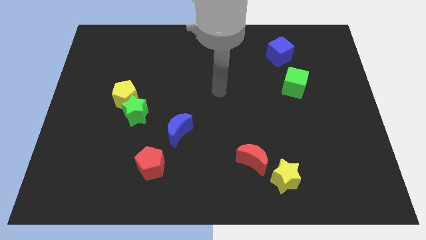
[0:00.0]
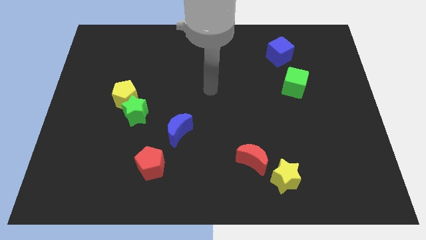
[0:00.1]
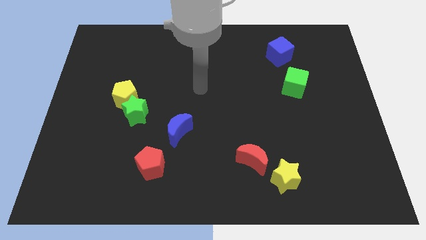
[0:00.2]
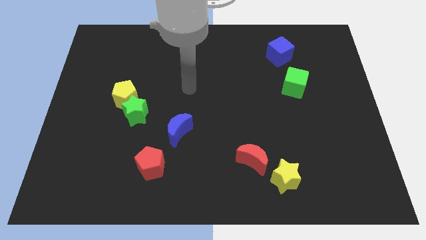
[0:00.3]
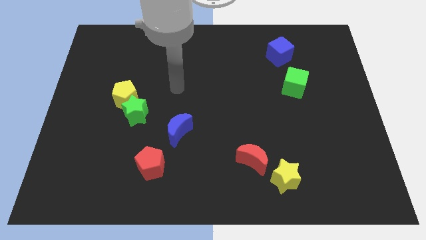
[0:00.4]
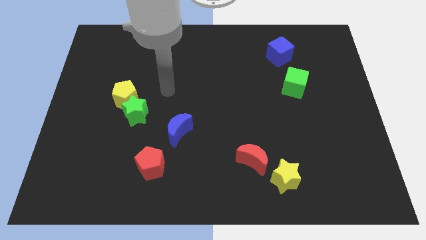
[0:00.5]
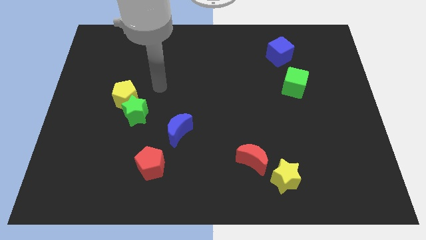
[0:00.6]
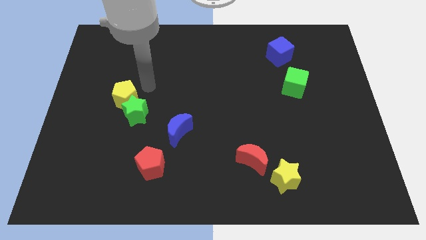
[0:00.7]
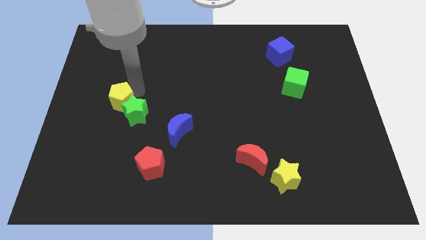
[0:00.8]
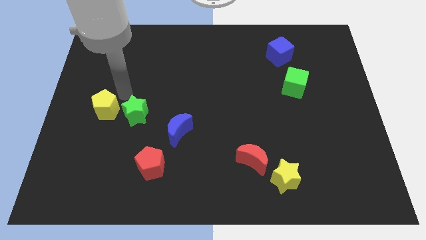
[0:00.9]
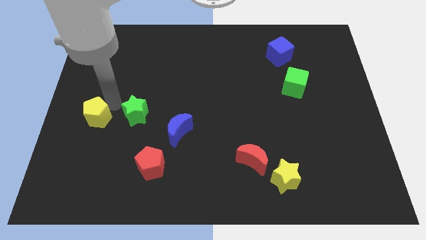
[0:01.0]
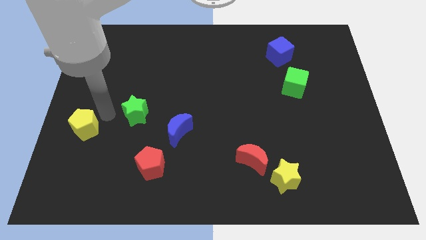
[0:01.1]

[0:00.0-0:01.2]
pull the green star apart from the yellow pentagon

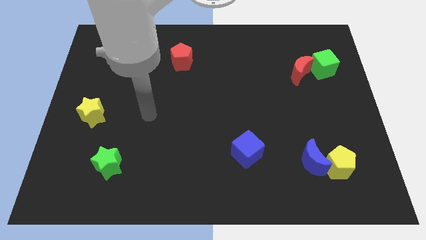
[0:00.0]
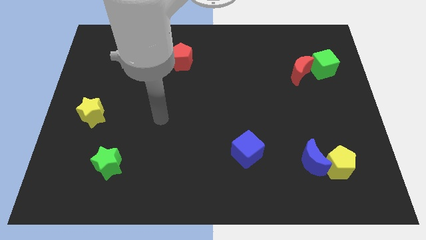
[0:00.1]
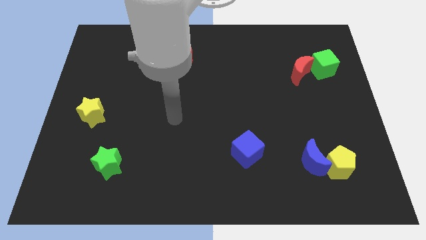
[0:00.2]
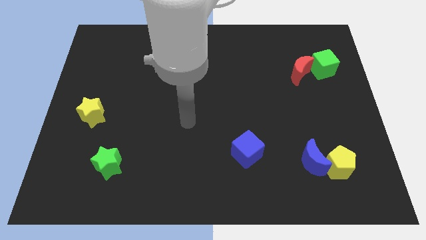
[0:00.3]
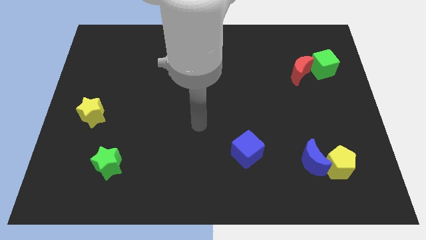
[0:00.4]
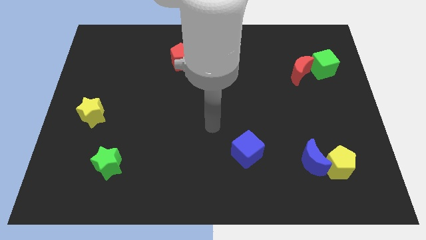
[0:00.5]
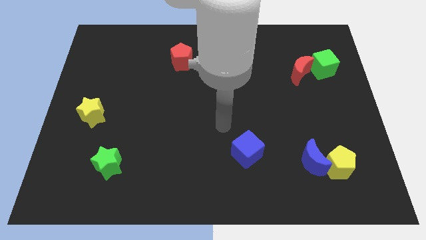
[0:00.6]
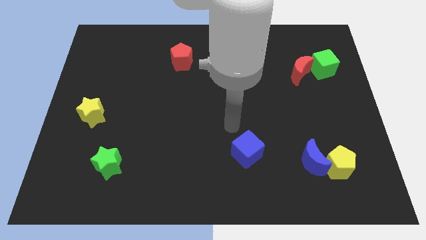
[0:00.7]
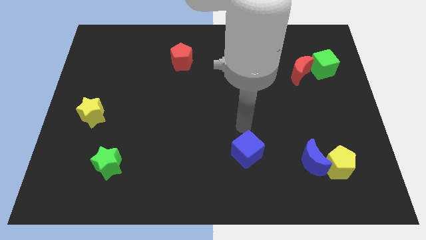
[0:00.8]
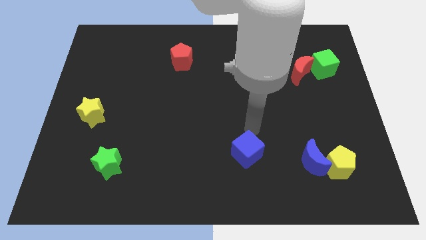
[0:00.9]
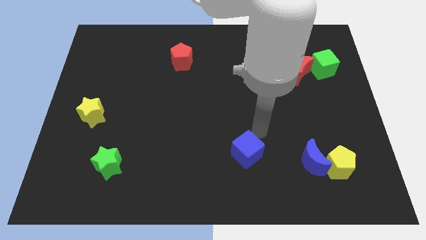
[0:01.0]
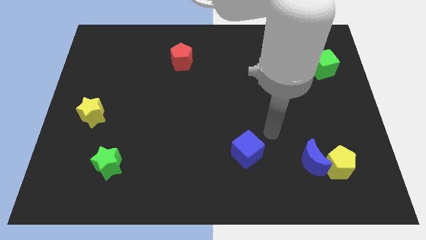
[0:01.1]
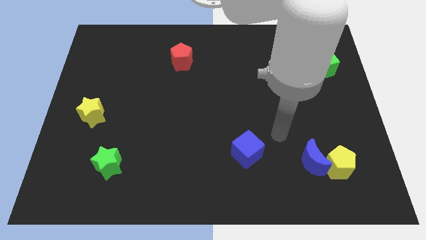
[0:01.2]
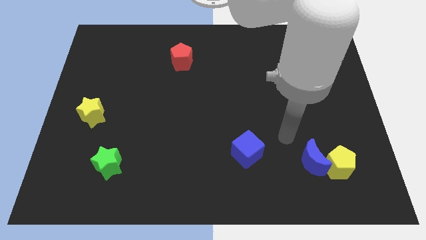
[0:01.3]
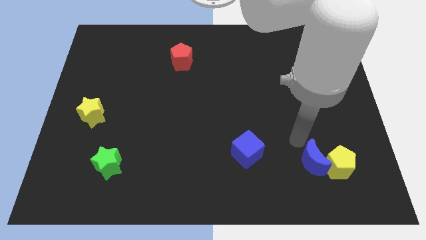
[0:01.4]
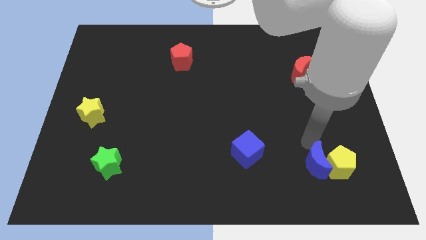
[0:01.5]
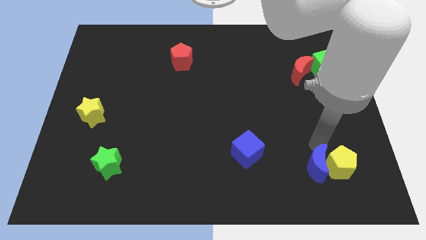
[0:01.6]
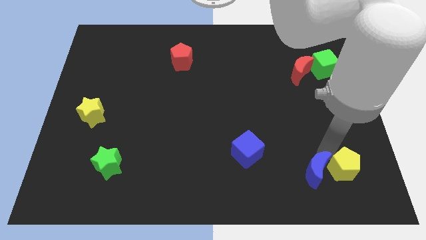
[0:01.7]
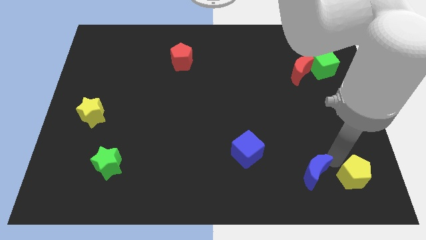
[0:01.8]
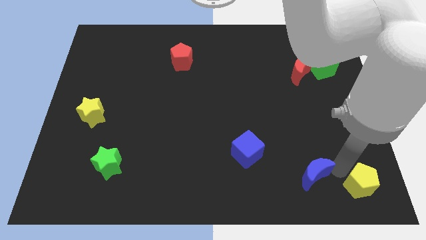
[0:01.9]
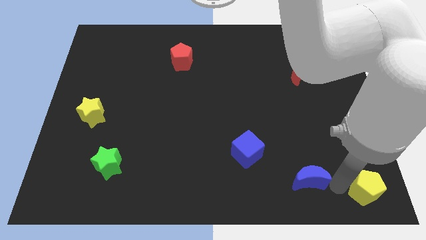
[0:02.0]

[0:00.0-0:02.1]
separate the blue moon from the yellow pentagon

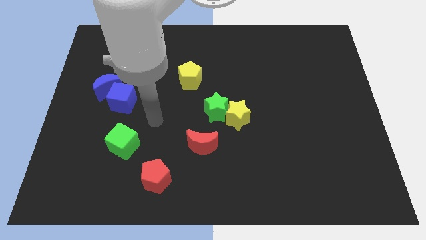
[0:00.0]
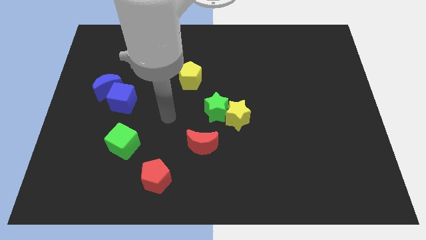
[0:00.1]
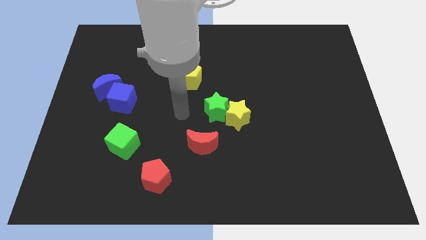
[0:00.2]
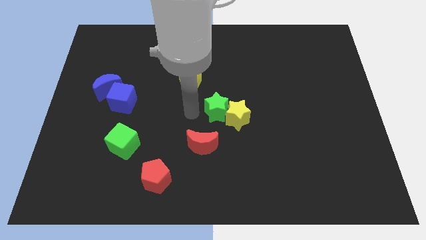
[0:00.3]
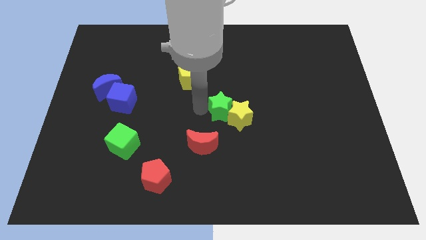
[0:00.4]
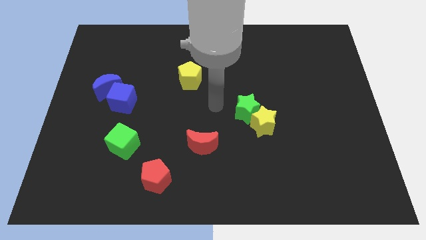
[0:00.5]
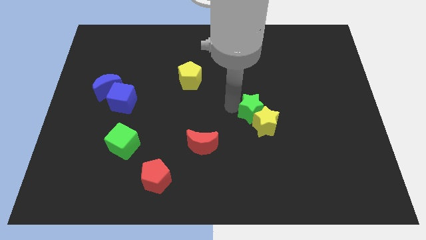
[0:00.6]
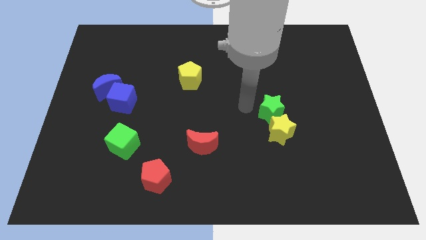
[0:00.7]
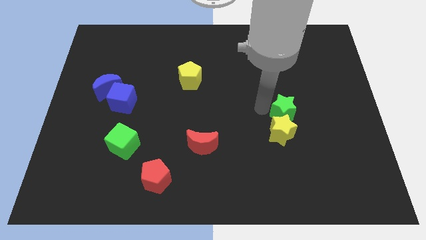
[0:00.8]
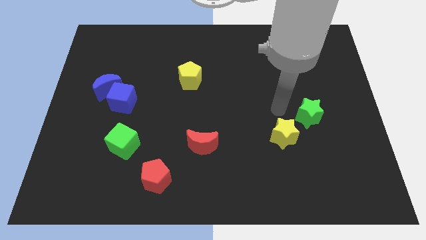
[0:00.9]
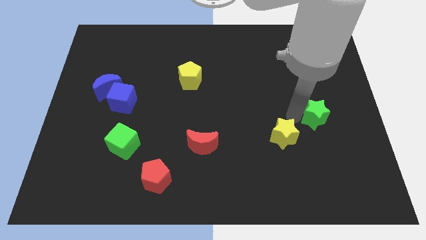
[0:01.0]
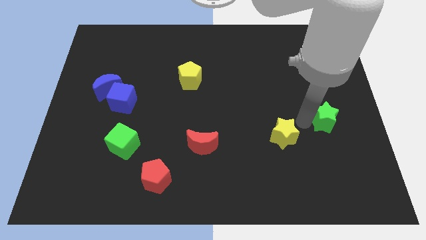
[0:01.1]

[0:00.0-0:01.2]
move the yellow star away from the green star

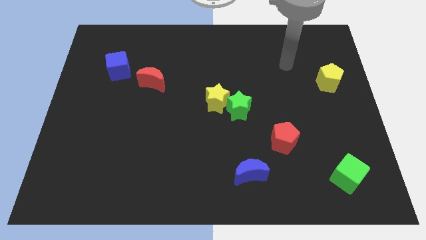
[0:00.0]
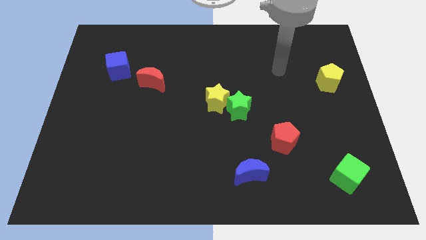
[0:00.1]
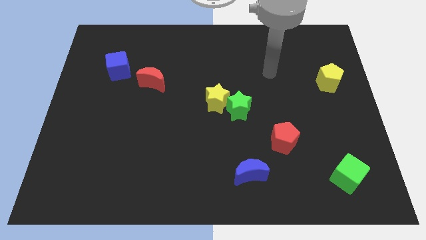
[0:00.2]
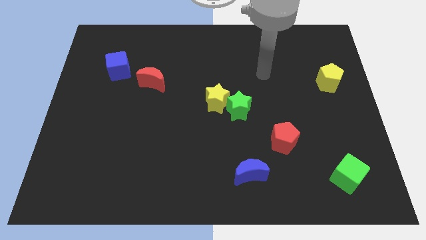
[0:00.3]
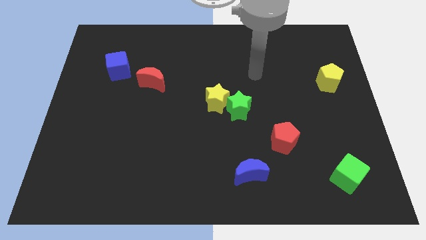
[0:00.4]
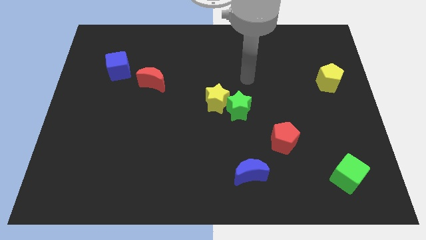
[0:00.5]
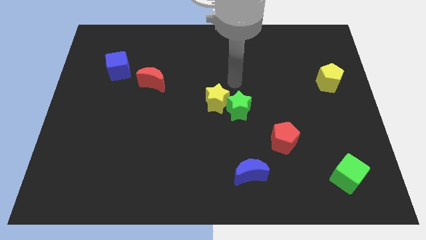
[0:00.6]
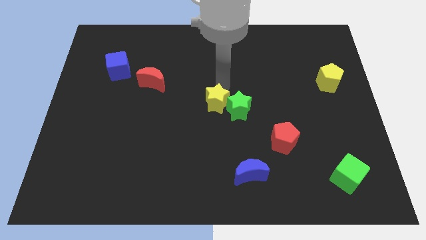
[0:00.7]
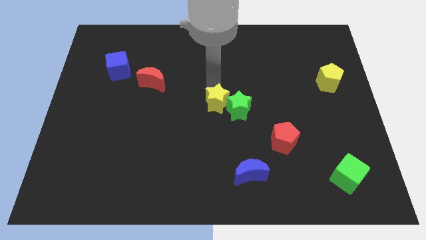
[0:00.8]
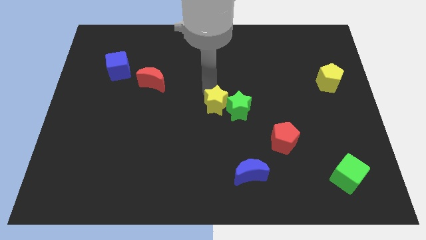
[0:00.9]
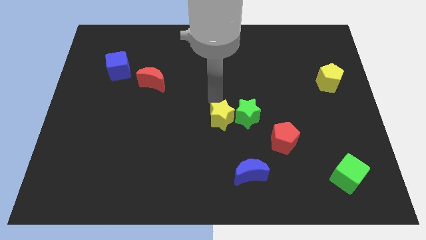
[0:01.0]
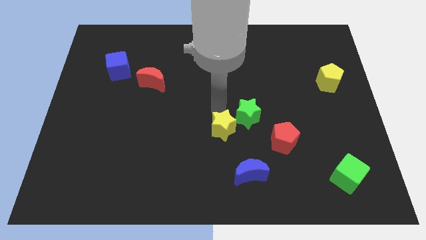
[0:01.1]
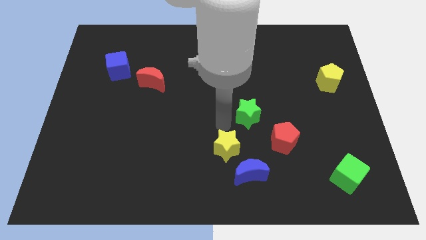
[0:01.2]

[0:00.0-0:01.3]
separate the green star from the yellow star

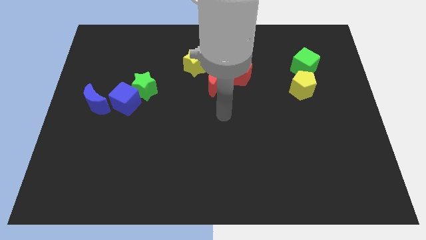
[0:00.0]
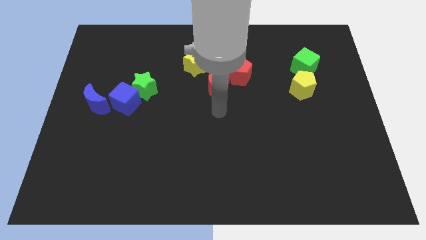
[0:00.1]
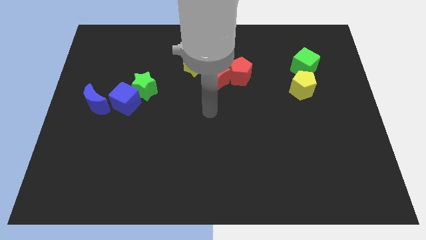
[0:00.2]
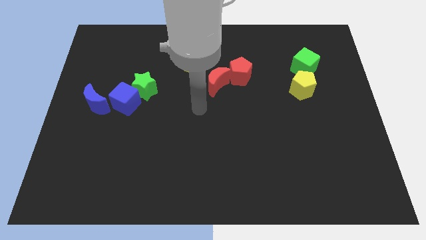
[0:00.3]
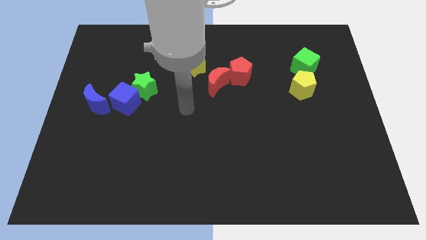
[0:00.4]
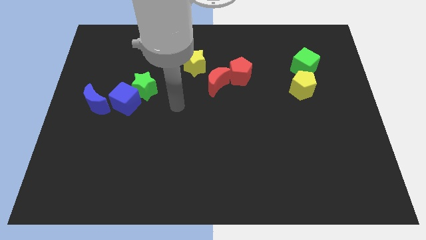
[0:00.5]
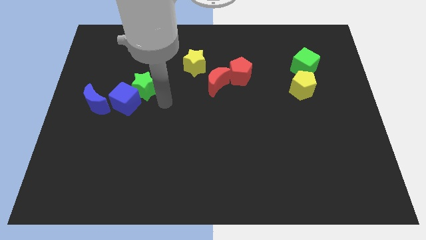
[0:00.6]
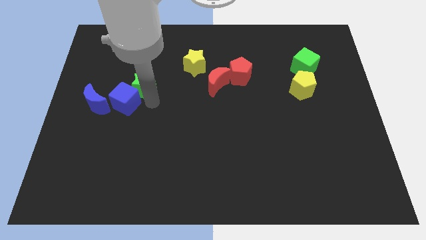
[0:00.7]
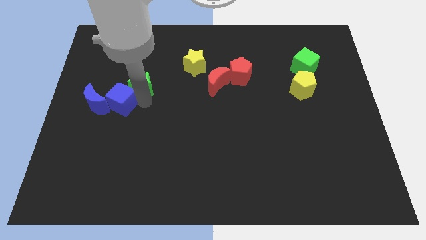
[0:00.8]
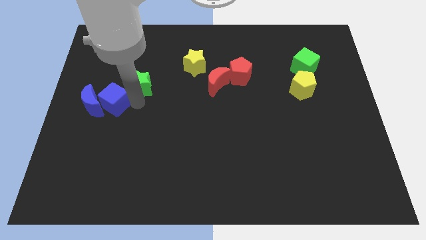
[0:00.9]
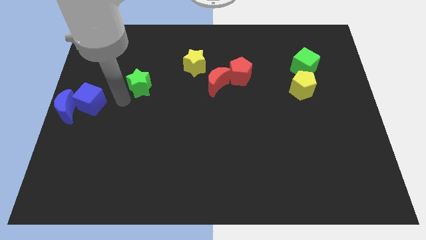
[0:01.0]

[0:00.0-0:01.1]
move the green star away from the blue cube

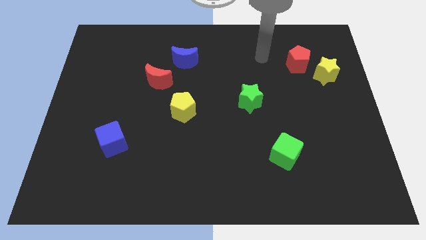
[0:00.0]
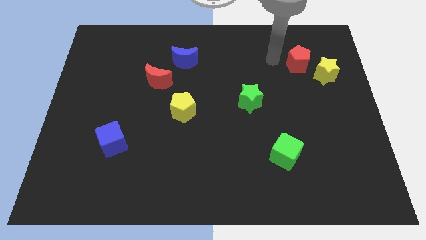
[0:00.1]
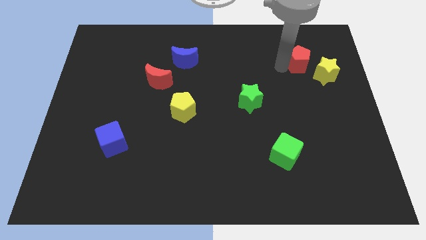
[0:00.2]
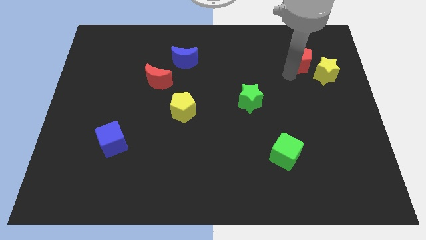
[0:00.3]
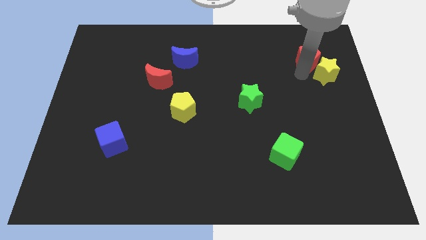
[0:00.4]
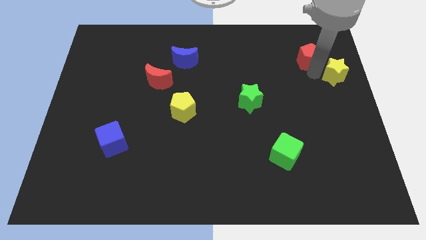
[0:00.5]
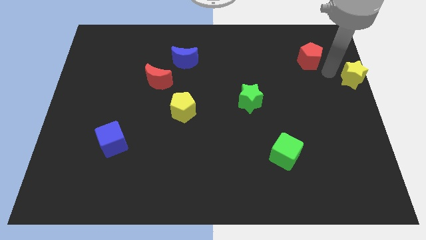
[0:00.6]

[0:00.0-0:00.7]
separate the red pentagon from the yellow star

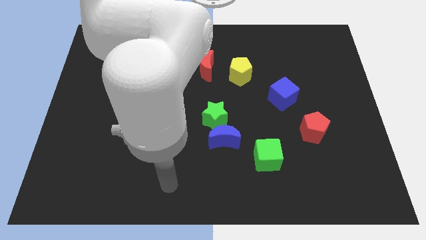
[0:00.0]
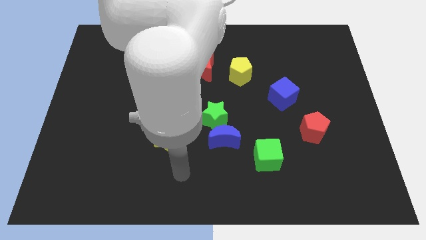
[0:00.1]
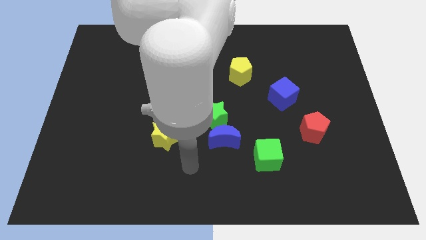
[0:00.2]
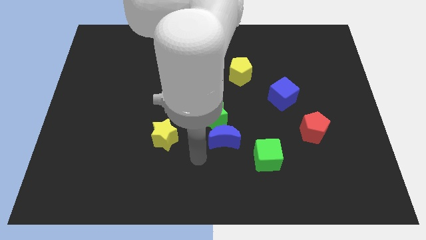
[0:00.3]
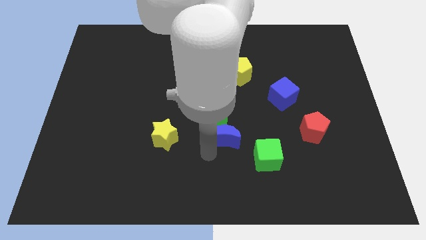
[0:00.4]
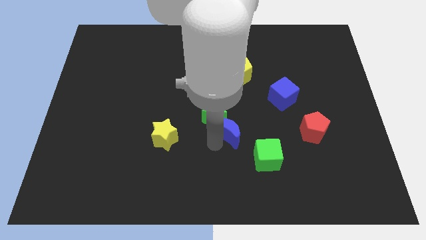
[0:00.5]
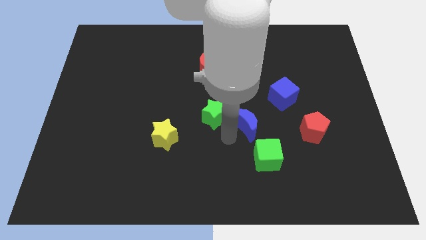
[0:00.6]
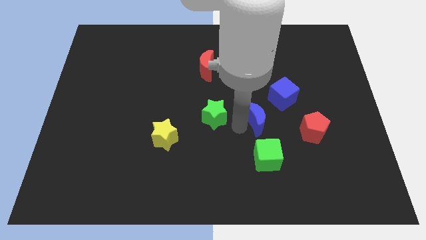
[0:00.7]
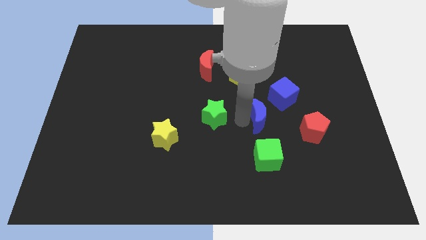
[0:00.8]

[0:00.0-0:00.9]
move the green star away from the blue moon

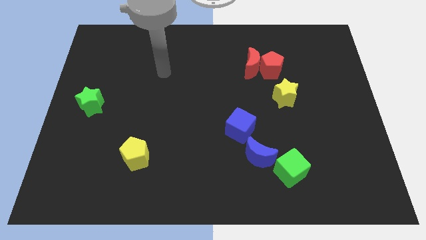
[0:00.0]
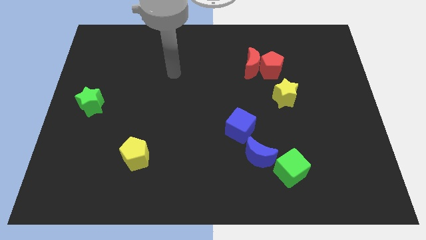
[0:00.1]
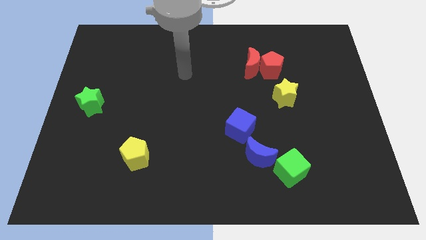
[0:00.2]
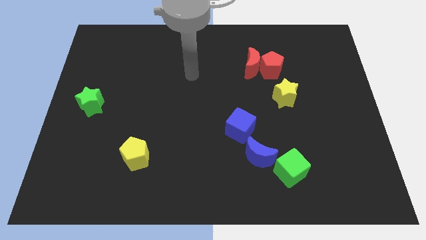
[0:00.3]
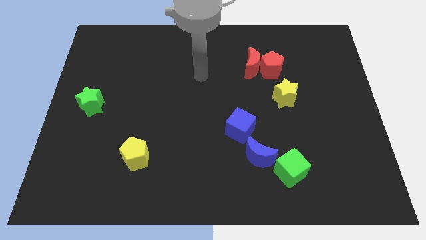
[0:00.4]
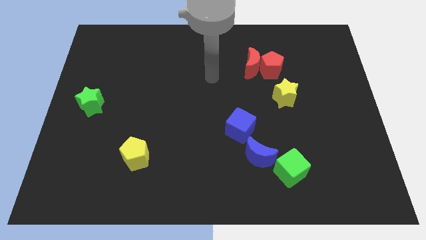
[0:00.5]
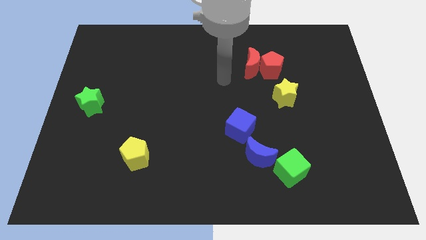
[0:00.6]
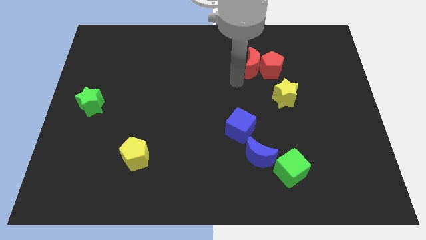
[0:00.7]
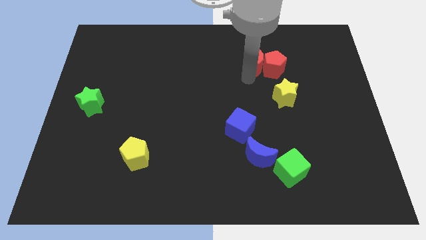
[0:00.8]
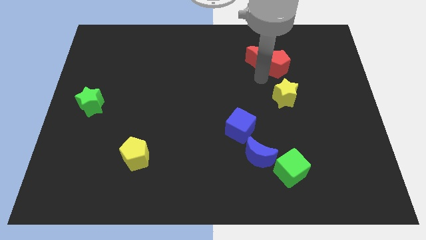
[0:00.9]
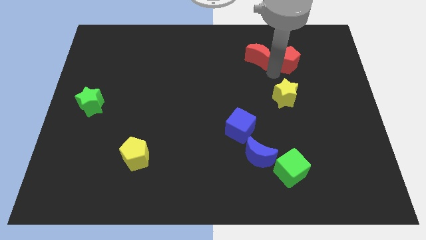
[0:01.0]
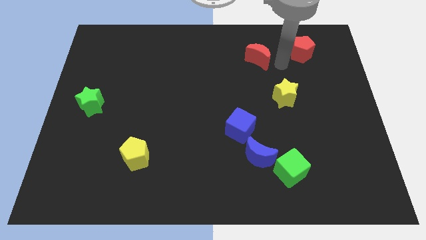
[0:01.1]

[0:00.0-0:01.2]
separate the red moon from the red pentagon
